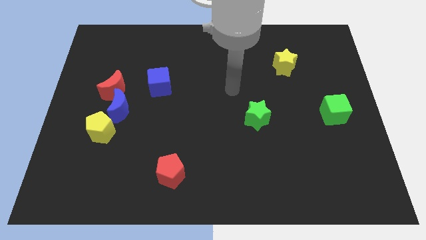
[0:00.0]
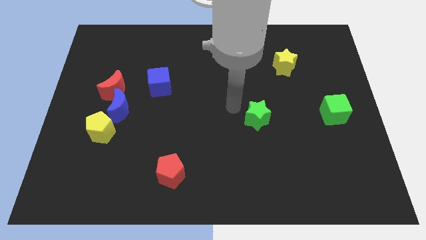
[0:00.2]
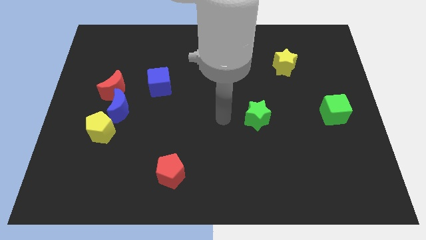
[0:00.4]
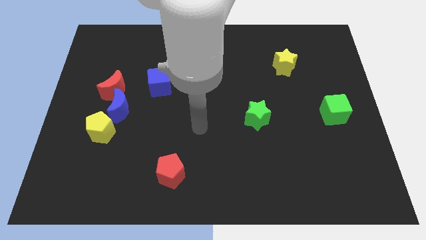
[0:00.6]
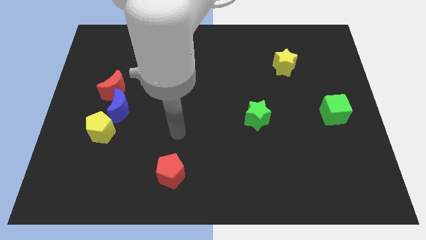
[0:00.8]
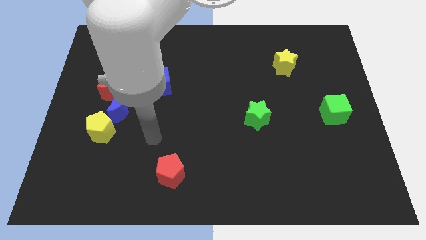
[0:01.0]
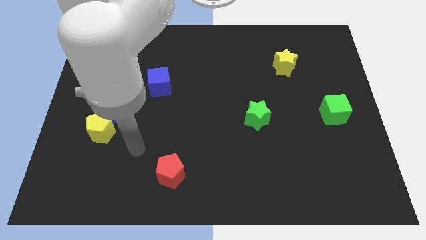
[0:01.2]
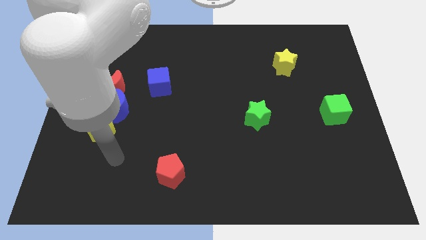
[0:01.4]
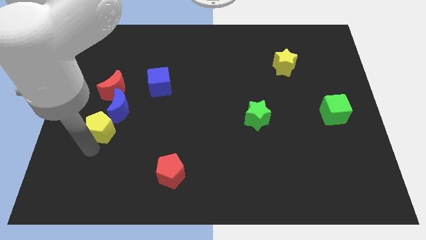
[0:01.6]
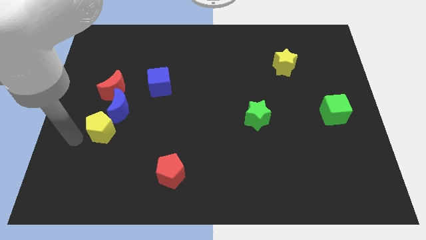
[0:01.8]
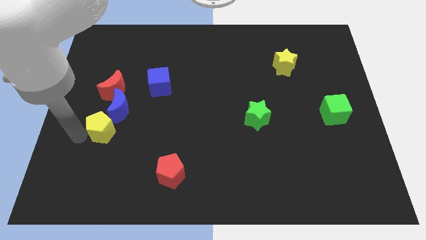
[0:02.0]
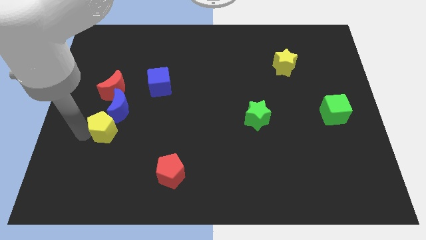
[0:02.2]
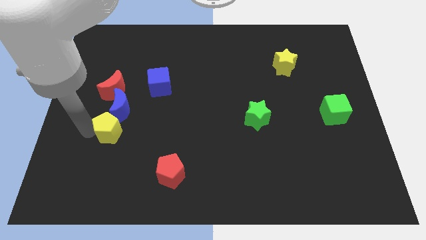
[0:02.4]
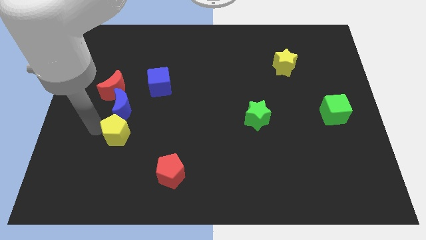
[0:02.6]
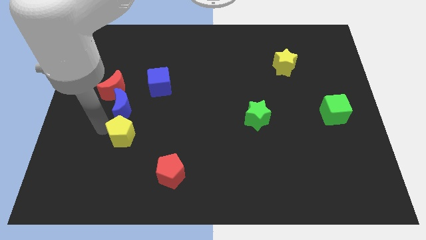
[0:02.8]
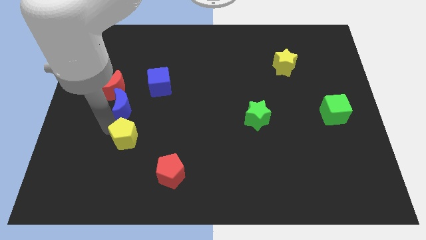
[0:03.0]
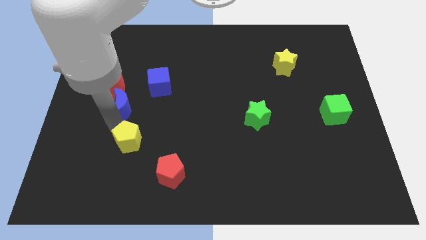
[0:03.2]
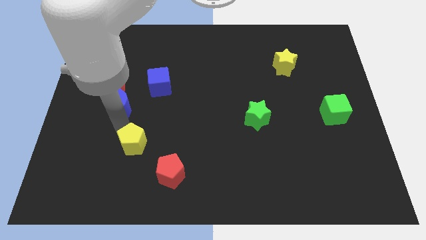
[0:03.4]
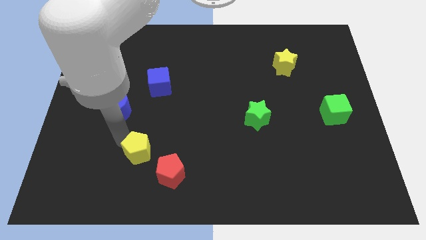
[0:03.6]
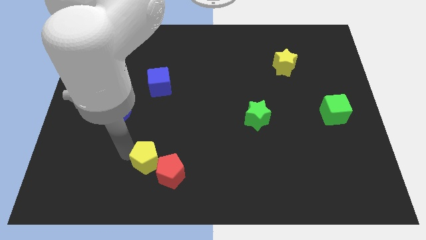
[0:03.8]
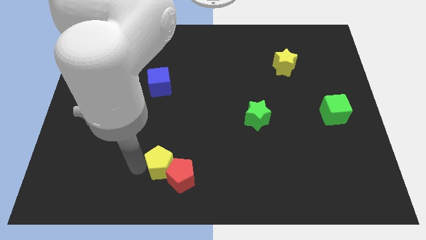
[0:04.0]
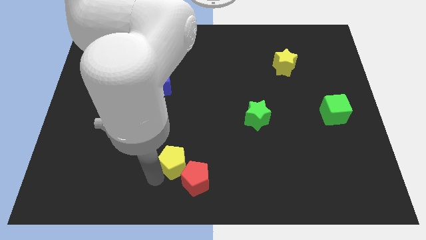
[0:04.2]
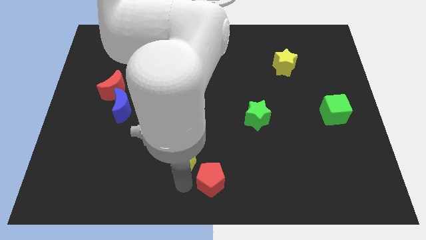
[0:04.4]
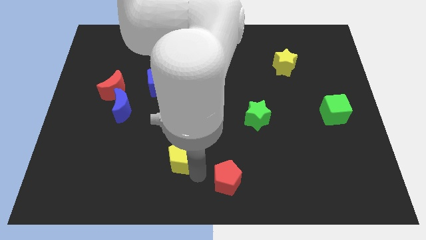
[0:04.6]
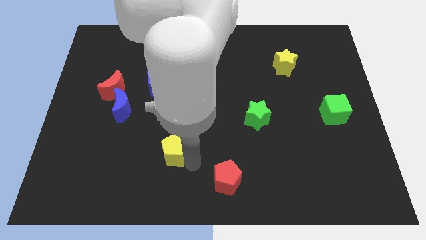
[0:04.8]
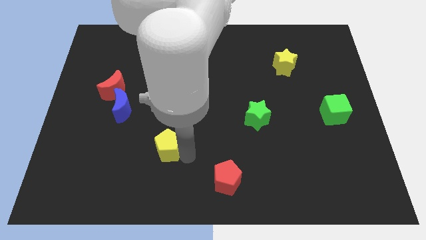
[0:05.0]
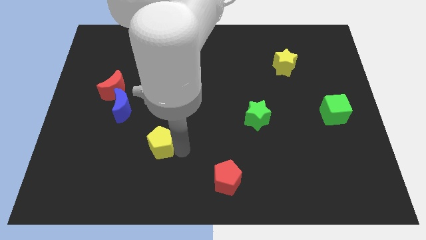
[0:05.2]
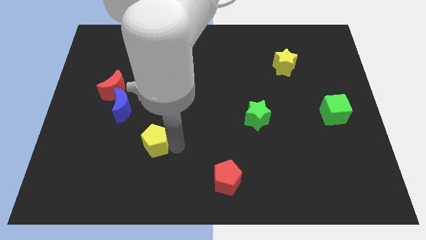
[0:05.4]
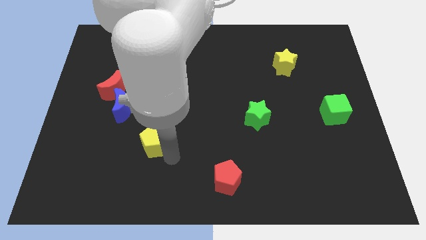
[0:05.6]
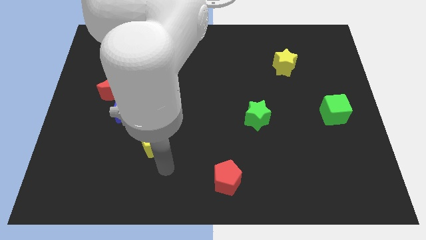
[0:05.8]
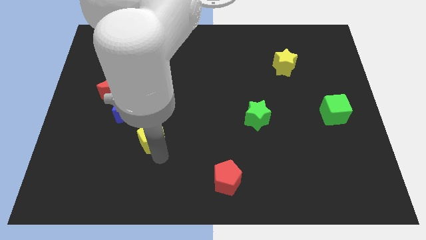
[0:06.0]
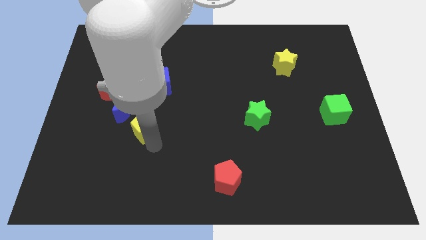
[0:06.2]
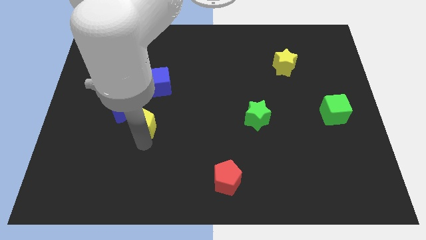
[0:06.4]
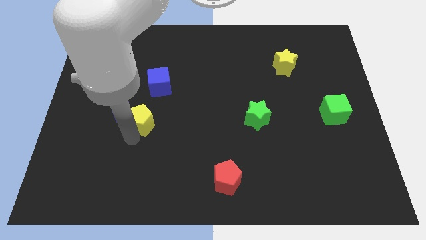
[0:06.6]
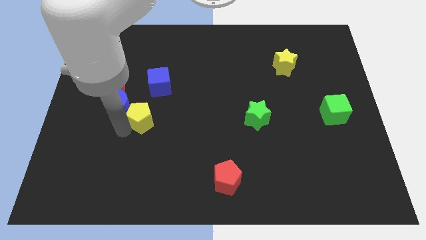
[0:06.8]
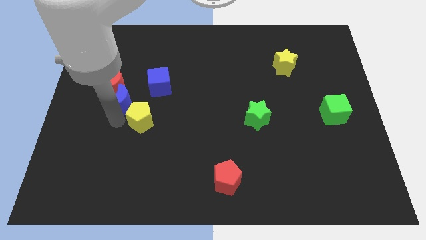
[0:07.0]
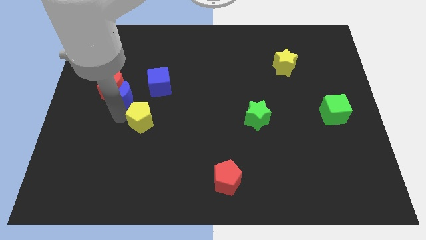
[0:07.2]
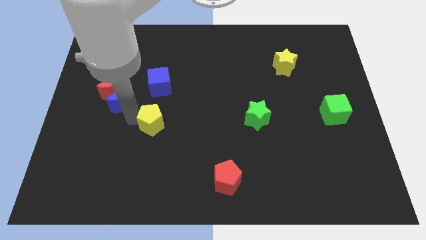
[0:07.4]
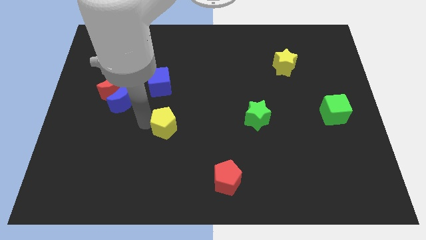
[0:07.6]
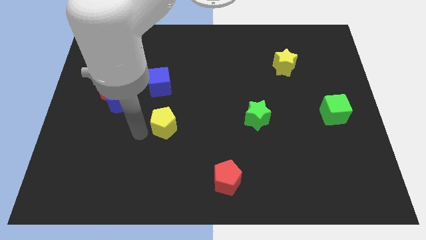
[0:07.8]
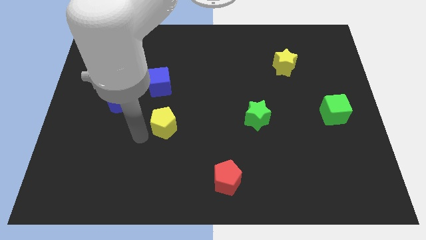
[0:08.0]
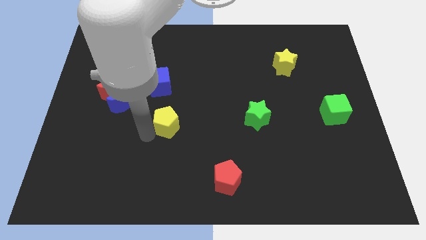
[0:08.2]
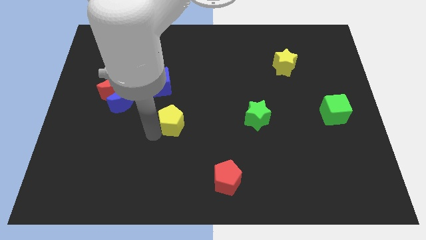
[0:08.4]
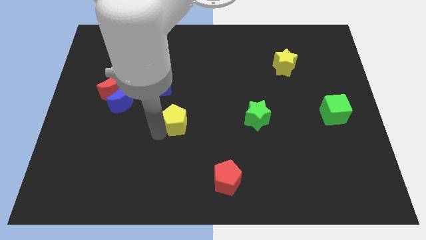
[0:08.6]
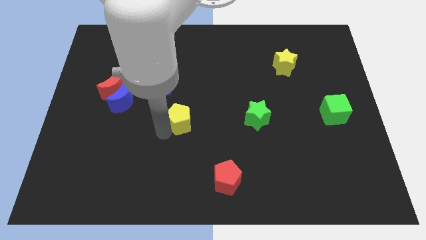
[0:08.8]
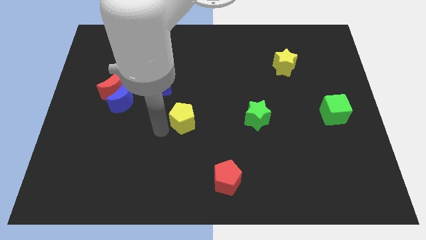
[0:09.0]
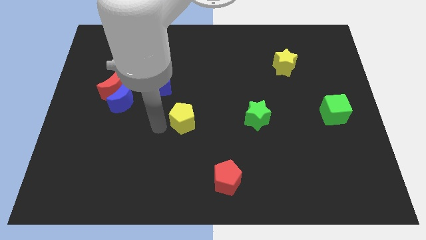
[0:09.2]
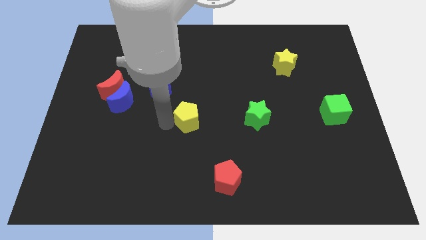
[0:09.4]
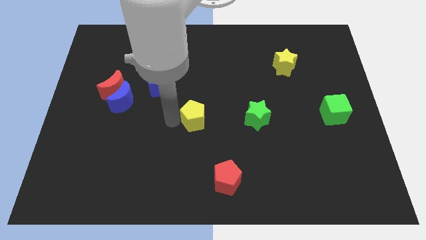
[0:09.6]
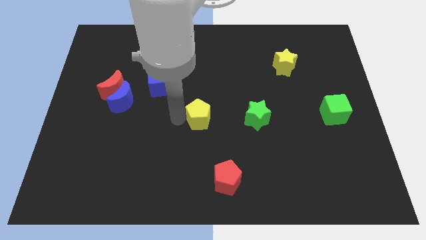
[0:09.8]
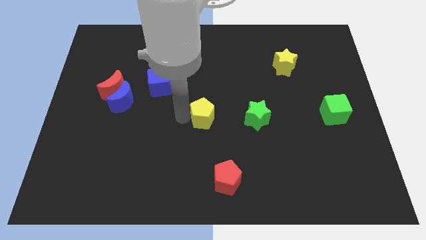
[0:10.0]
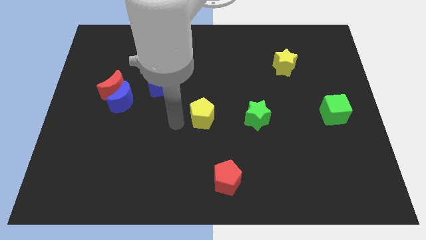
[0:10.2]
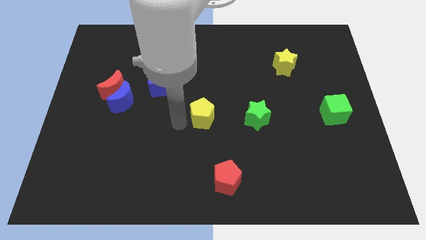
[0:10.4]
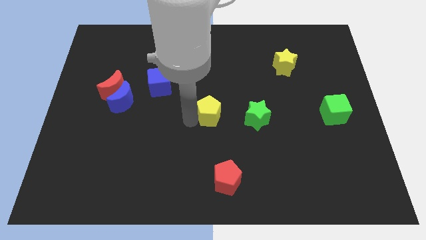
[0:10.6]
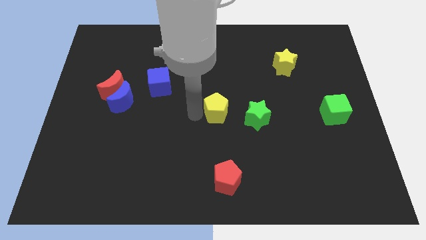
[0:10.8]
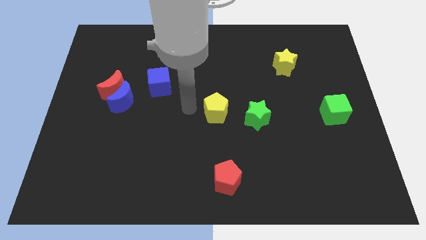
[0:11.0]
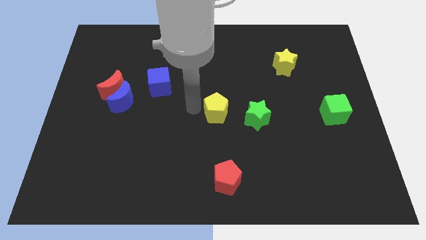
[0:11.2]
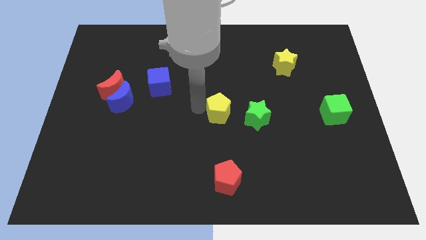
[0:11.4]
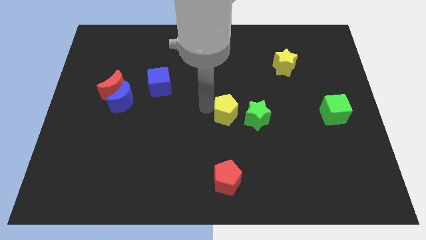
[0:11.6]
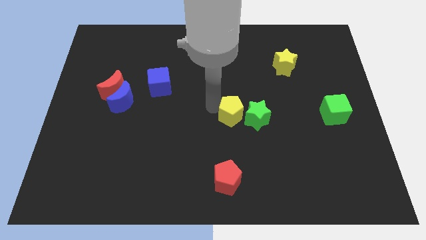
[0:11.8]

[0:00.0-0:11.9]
push the yellow pentagon close to the green star

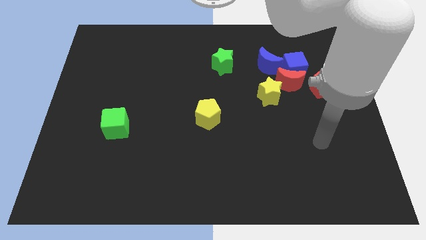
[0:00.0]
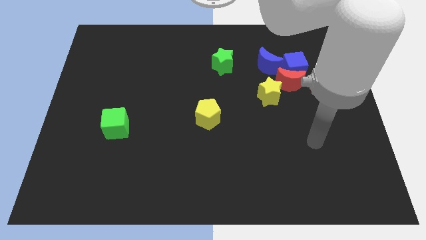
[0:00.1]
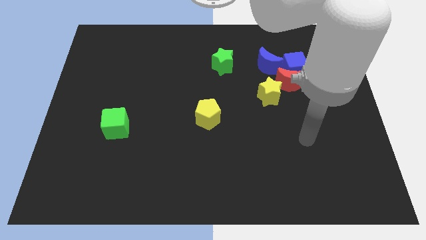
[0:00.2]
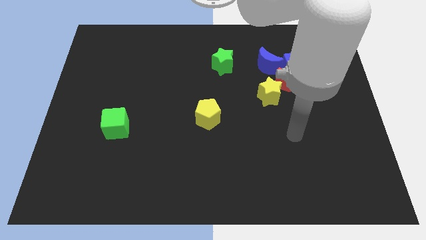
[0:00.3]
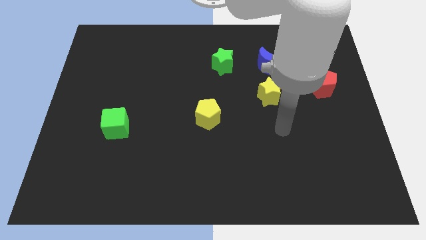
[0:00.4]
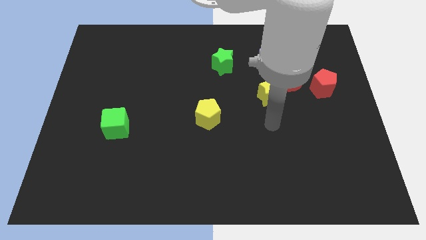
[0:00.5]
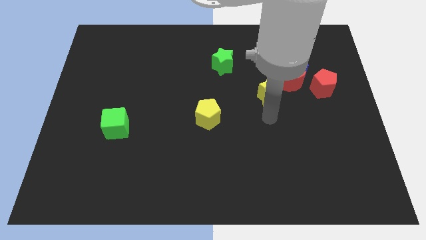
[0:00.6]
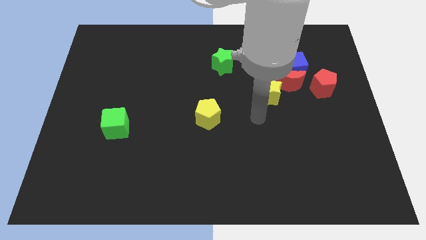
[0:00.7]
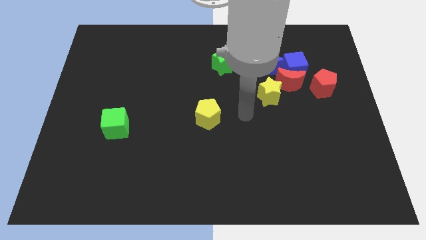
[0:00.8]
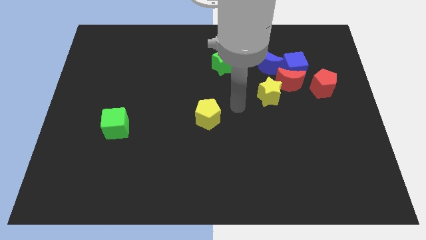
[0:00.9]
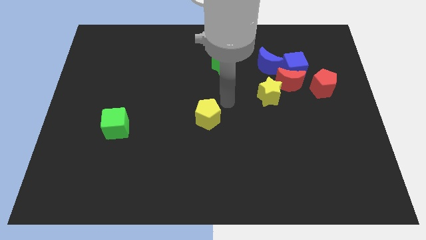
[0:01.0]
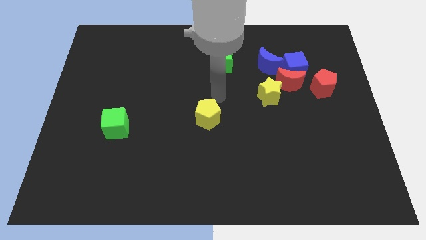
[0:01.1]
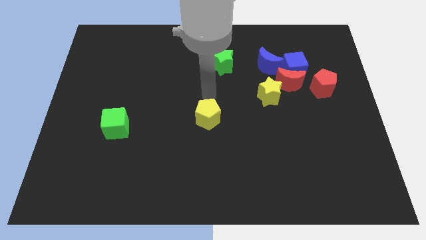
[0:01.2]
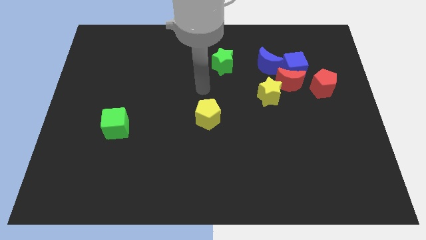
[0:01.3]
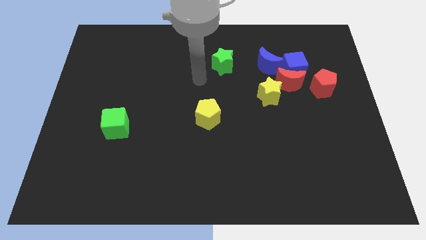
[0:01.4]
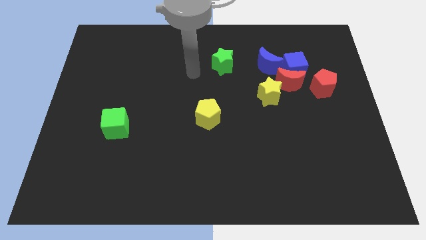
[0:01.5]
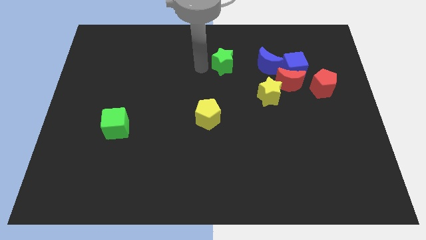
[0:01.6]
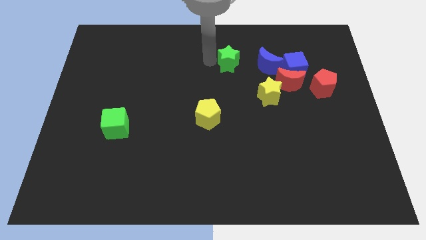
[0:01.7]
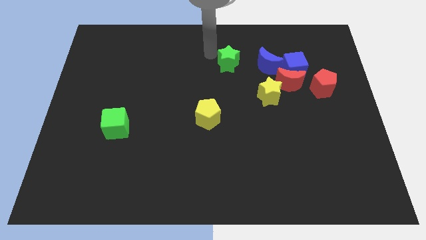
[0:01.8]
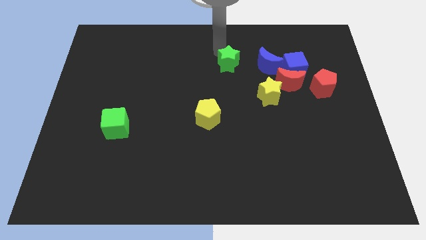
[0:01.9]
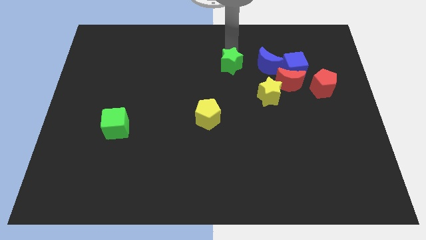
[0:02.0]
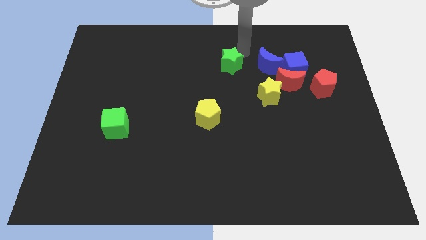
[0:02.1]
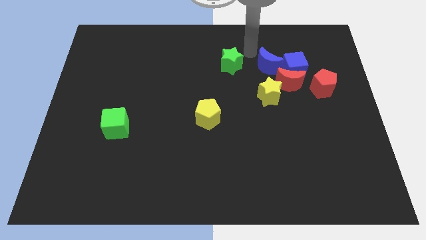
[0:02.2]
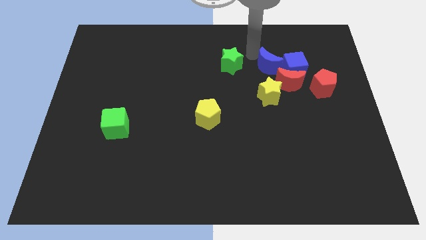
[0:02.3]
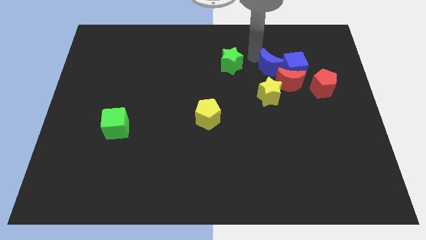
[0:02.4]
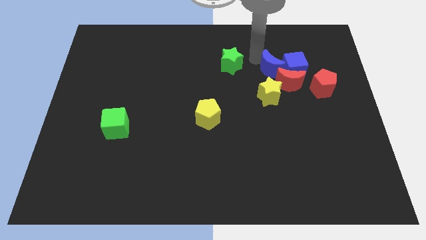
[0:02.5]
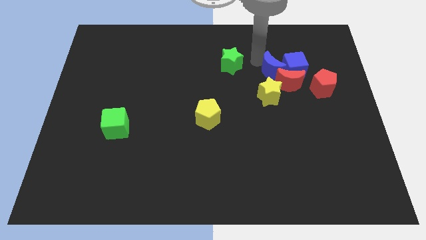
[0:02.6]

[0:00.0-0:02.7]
put the blue moon to the red moon
